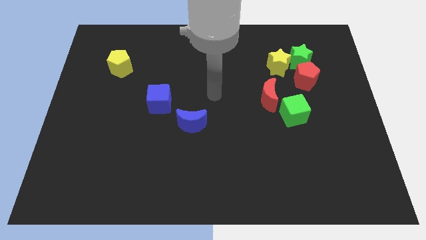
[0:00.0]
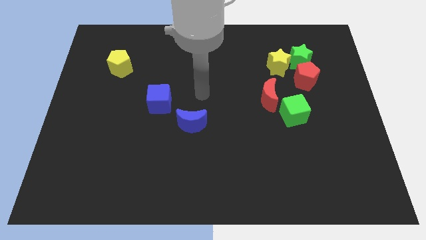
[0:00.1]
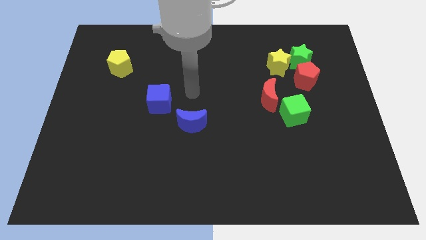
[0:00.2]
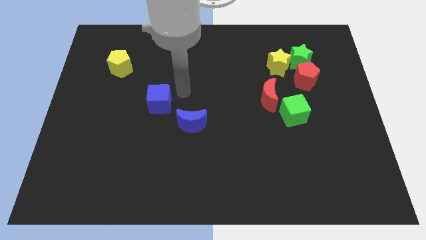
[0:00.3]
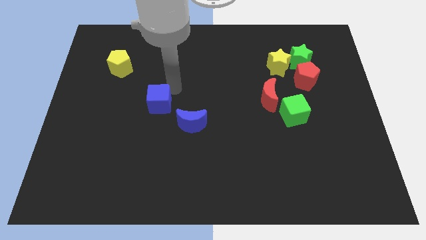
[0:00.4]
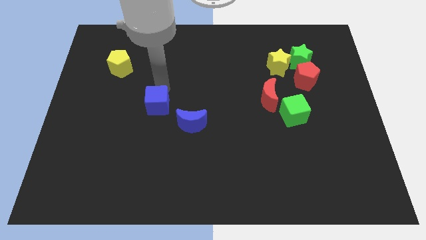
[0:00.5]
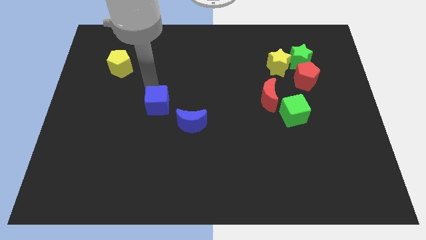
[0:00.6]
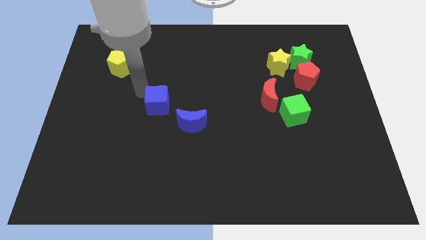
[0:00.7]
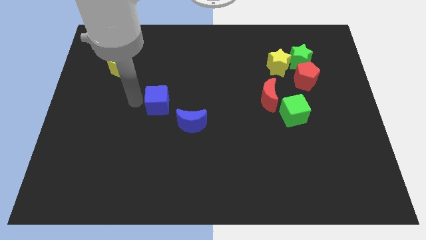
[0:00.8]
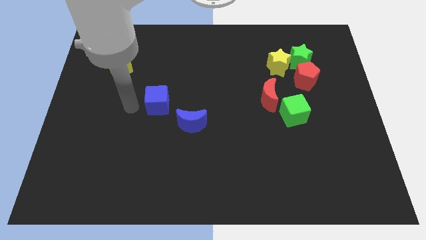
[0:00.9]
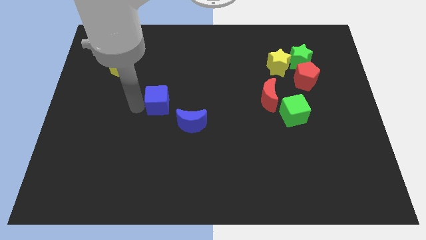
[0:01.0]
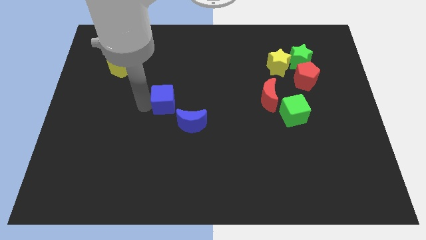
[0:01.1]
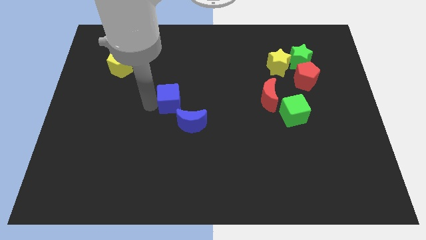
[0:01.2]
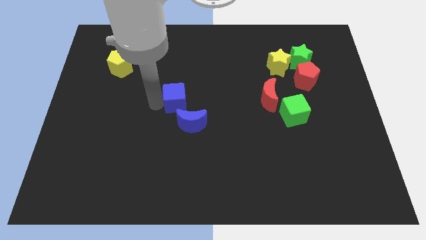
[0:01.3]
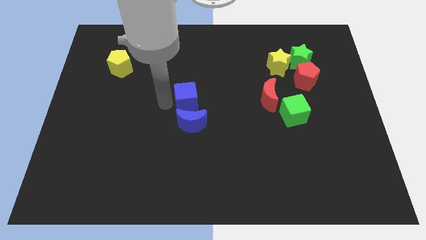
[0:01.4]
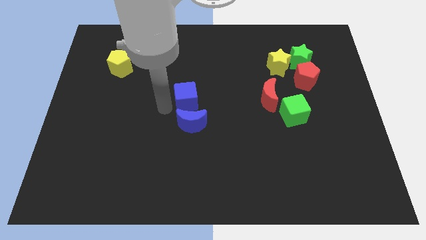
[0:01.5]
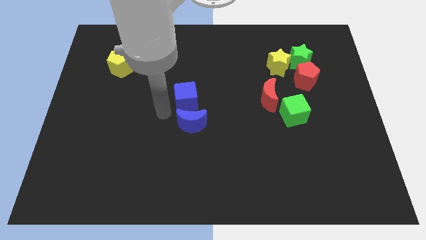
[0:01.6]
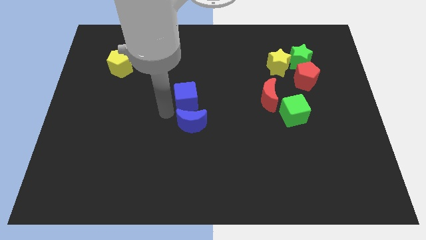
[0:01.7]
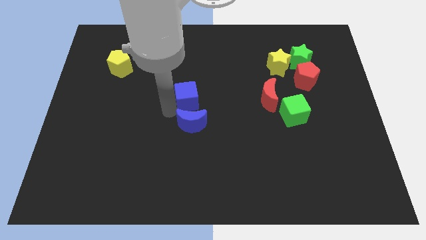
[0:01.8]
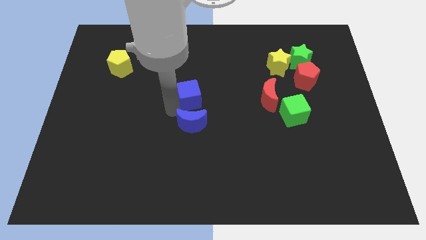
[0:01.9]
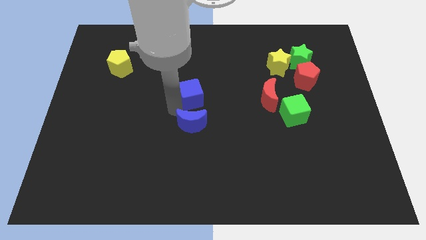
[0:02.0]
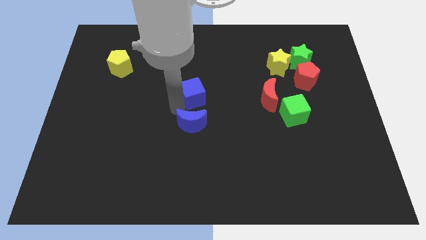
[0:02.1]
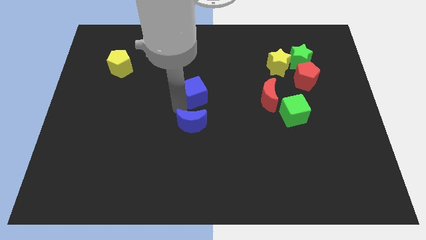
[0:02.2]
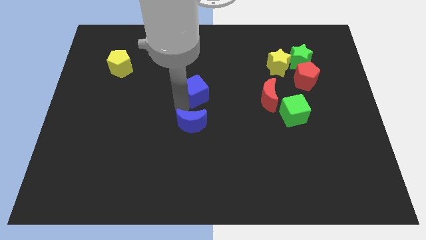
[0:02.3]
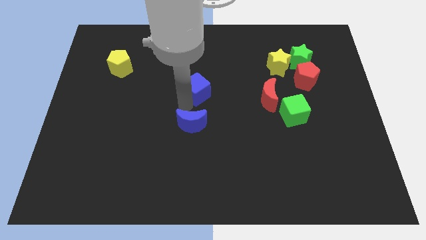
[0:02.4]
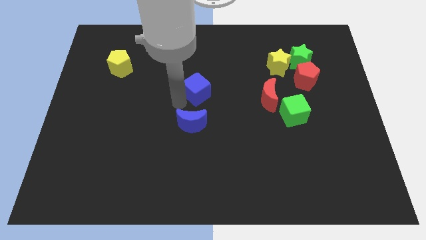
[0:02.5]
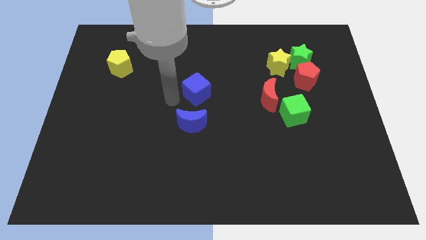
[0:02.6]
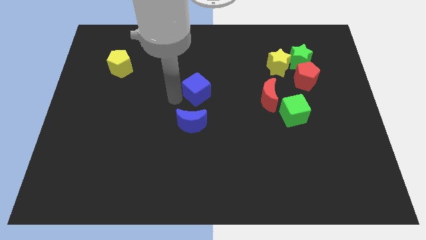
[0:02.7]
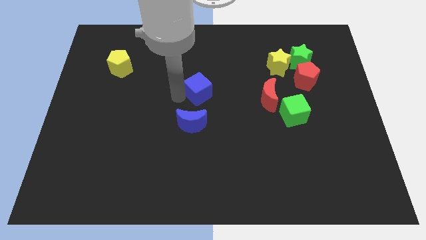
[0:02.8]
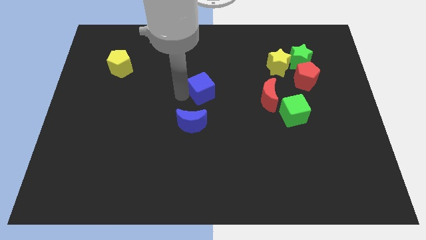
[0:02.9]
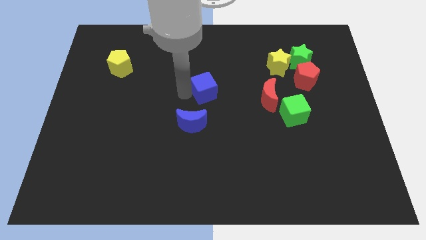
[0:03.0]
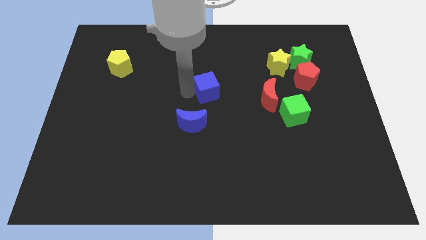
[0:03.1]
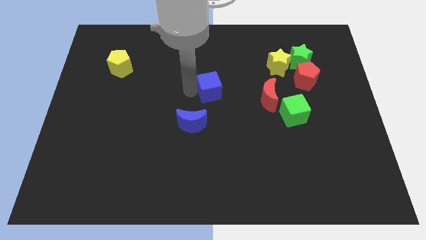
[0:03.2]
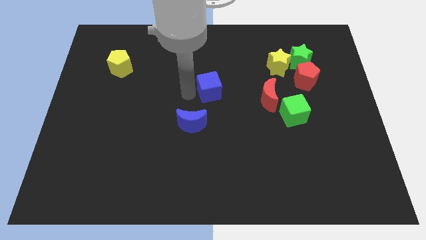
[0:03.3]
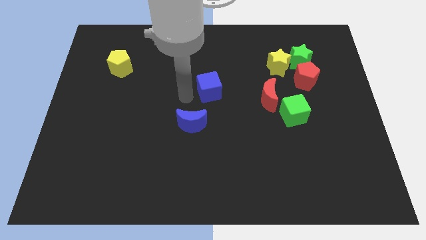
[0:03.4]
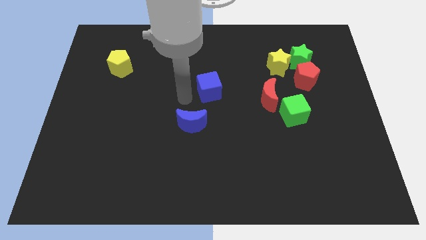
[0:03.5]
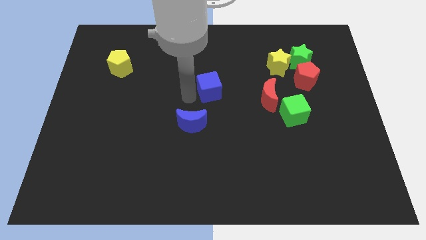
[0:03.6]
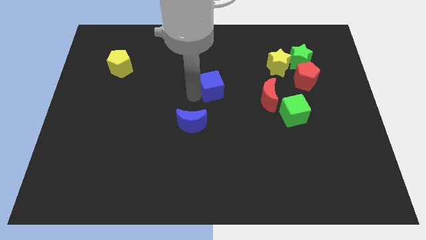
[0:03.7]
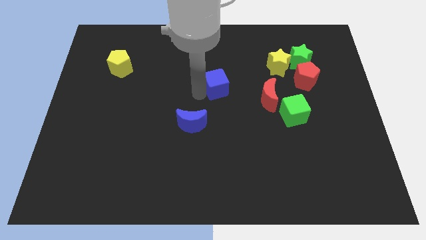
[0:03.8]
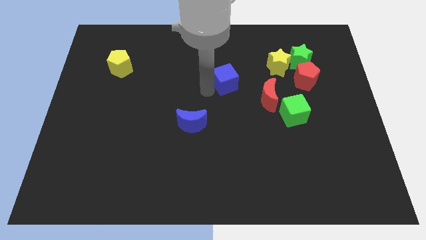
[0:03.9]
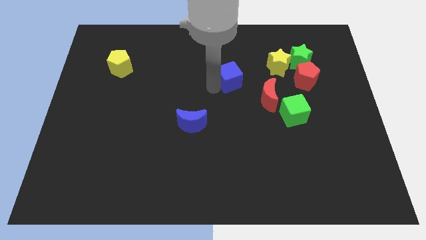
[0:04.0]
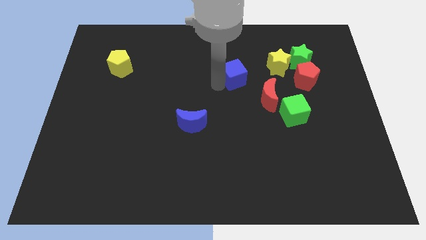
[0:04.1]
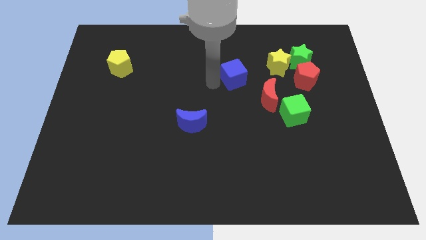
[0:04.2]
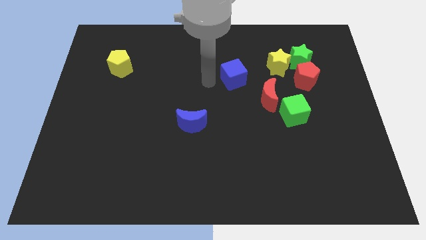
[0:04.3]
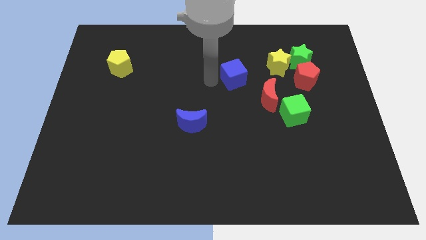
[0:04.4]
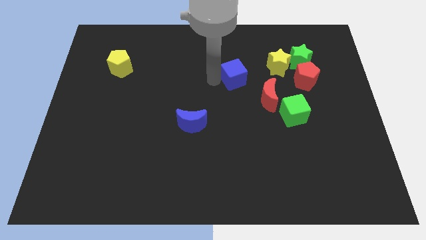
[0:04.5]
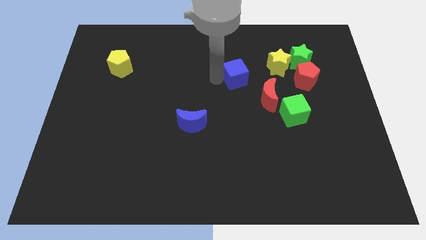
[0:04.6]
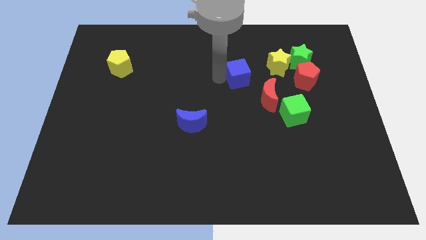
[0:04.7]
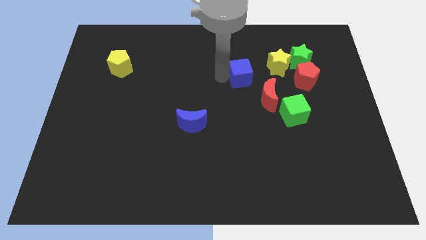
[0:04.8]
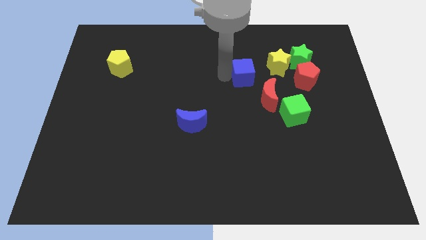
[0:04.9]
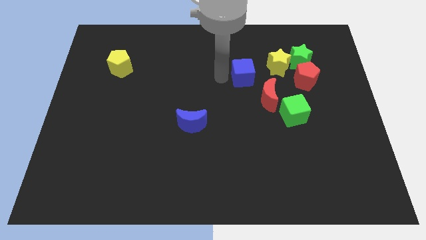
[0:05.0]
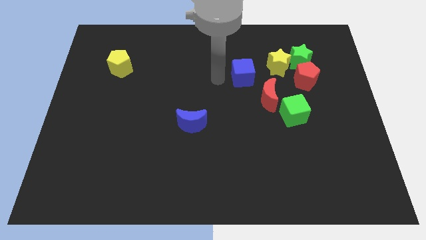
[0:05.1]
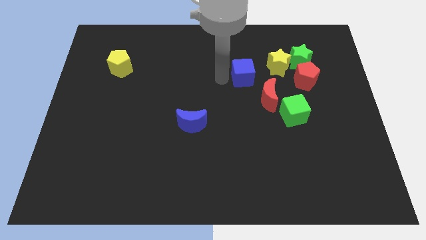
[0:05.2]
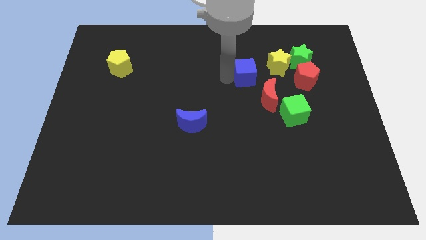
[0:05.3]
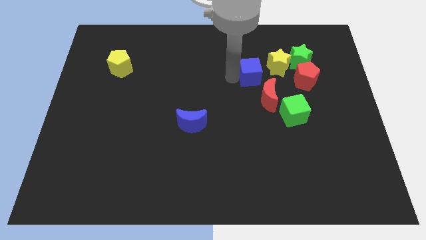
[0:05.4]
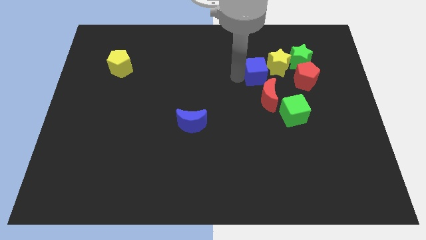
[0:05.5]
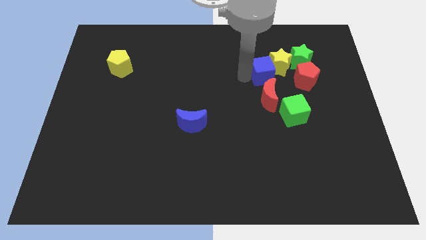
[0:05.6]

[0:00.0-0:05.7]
slide the blue cube close to the yellow star

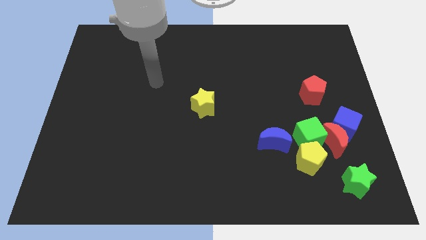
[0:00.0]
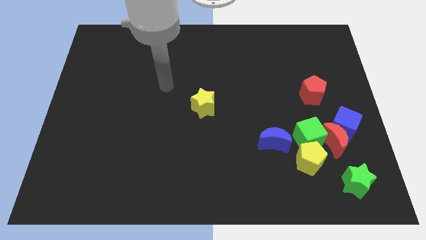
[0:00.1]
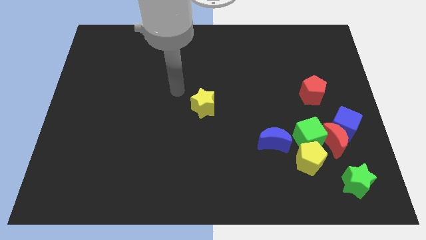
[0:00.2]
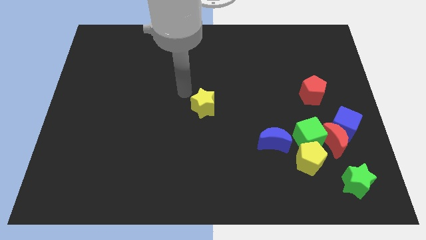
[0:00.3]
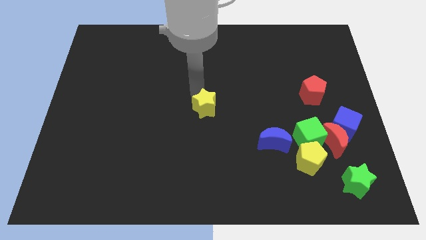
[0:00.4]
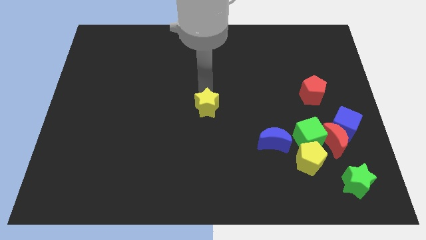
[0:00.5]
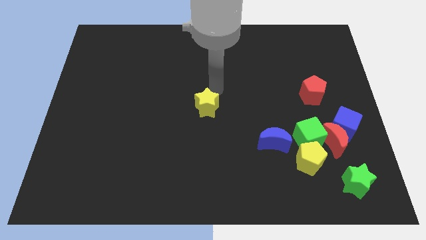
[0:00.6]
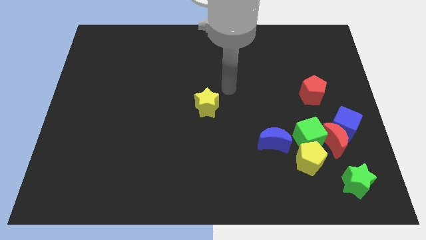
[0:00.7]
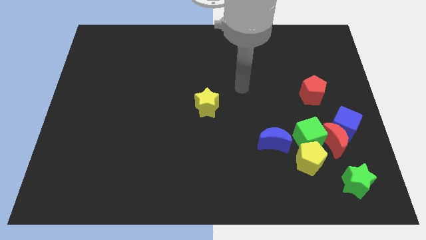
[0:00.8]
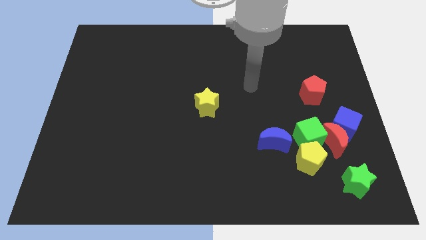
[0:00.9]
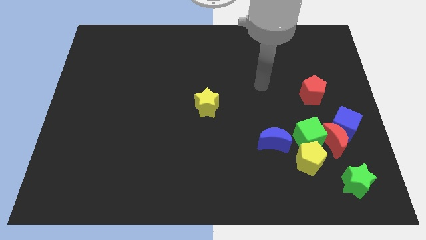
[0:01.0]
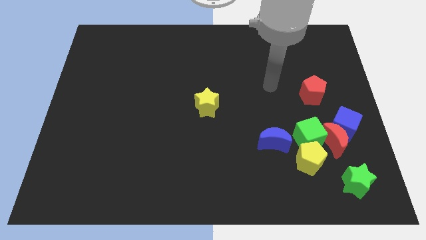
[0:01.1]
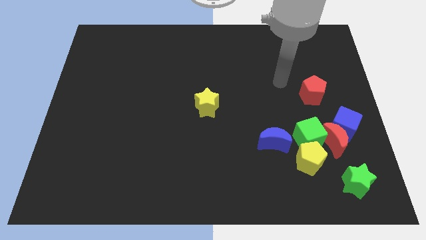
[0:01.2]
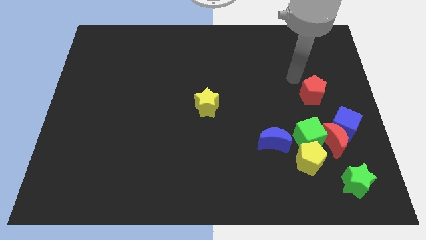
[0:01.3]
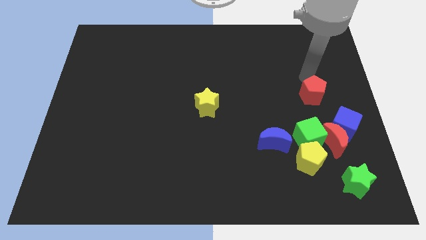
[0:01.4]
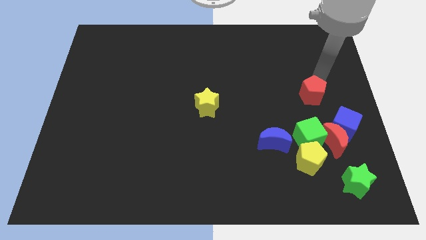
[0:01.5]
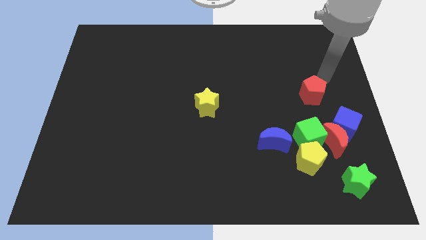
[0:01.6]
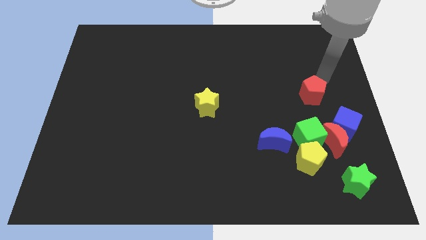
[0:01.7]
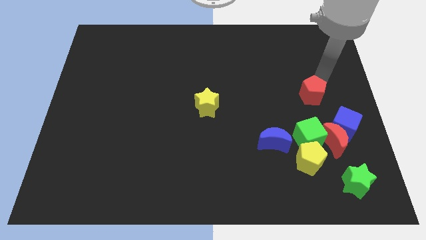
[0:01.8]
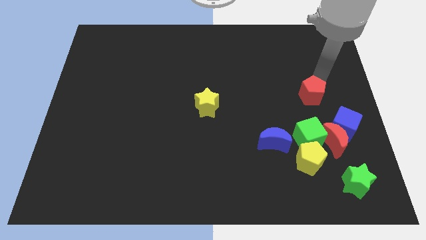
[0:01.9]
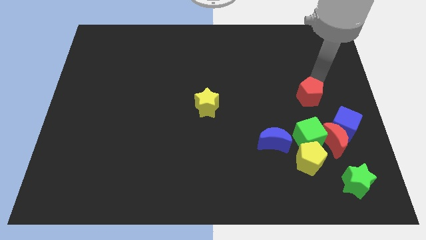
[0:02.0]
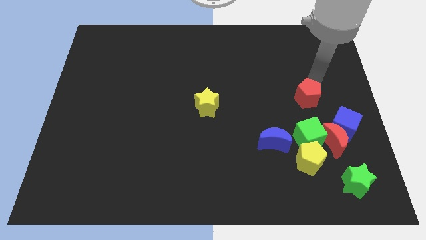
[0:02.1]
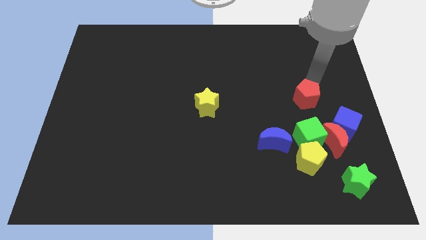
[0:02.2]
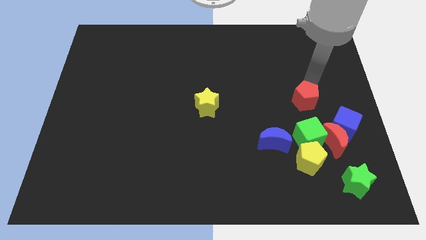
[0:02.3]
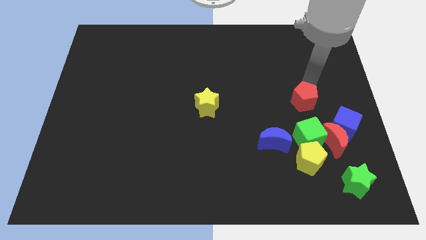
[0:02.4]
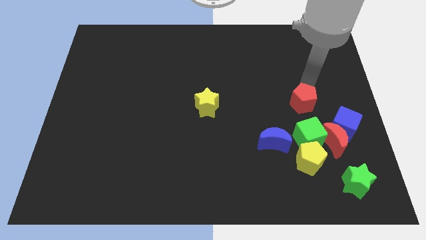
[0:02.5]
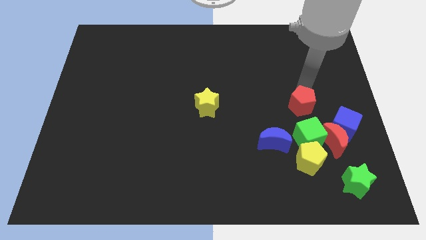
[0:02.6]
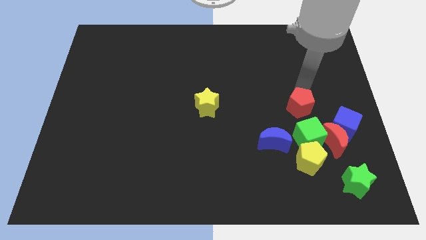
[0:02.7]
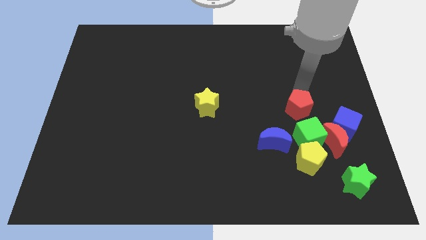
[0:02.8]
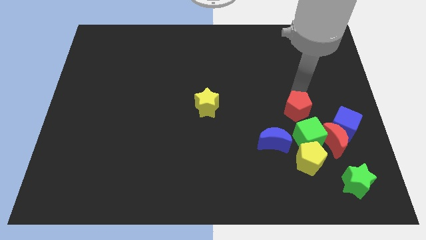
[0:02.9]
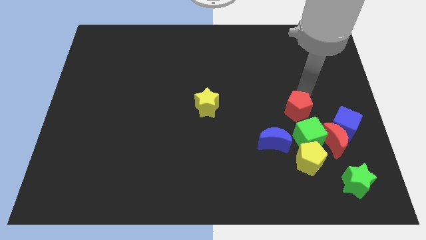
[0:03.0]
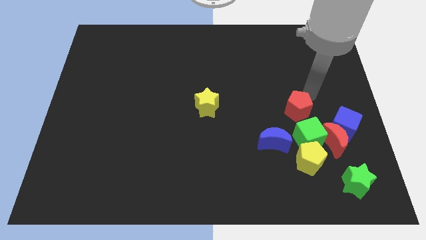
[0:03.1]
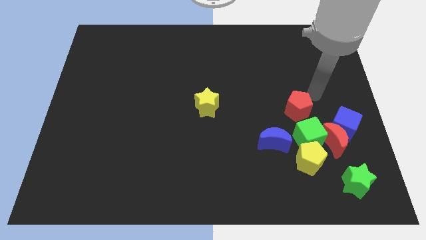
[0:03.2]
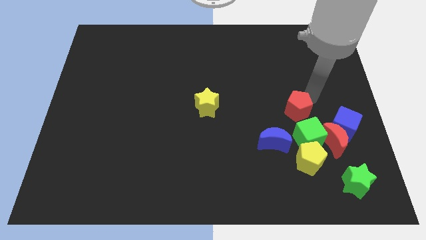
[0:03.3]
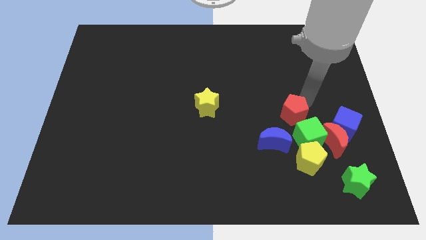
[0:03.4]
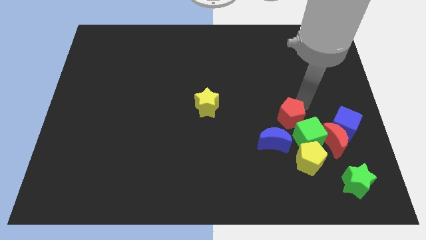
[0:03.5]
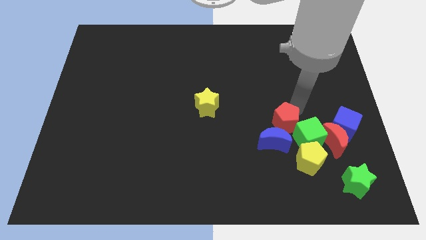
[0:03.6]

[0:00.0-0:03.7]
move the red pentagon close to the blue moon
